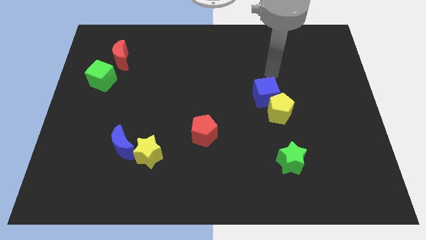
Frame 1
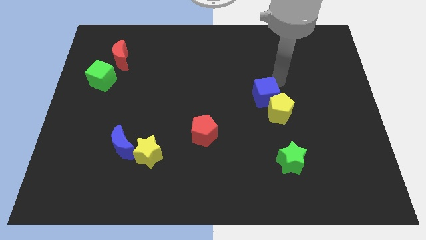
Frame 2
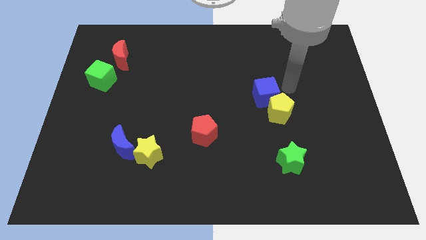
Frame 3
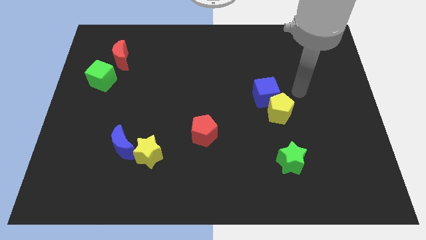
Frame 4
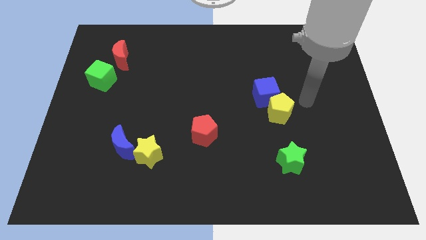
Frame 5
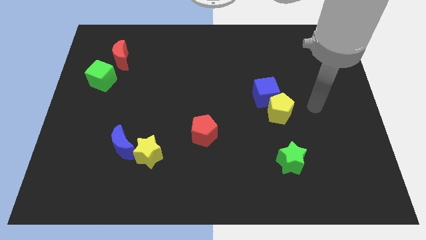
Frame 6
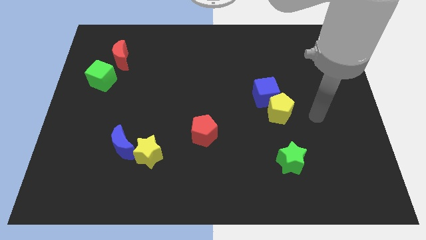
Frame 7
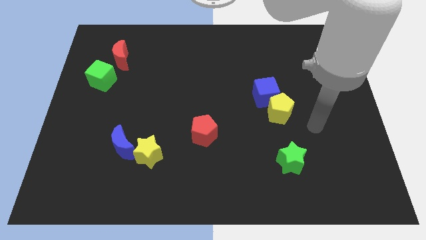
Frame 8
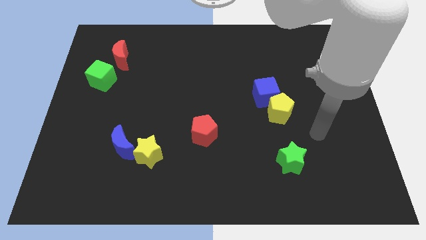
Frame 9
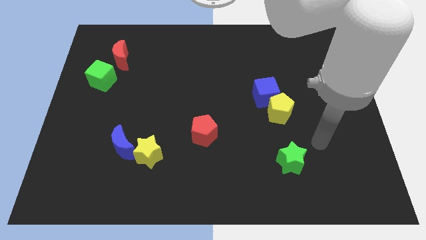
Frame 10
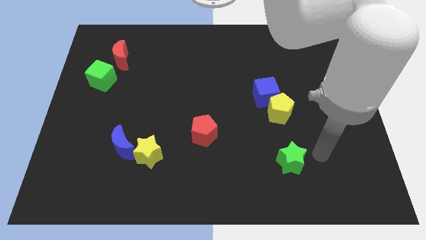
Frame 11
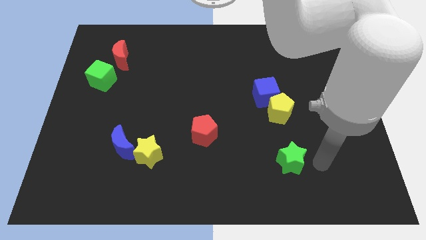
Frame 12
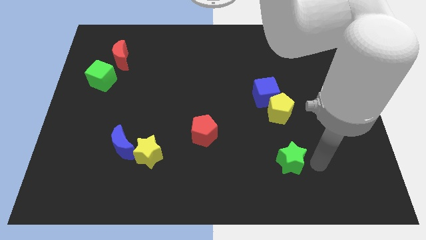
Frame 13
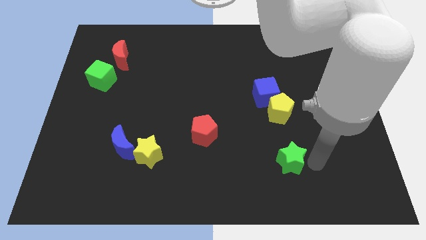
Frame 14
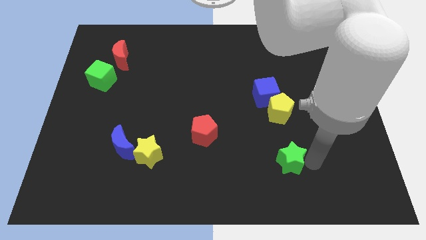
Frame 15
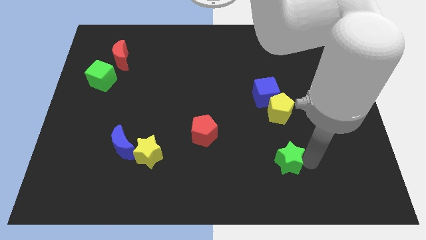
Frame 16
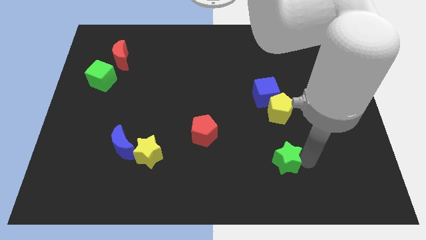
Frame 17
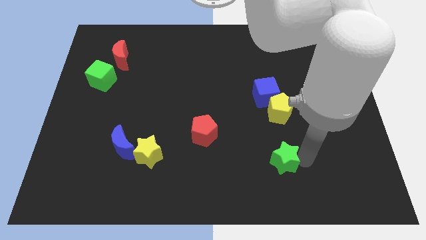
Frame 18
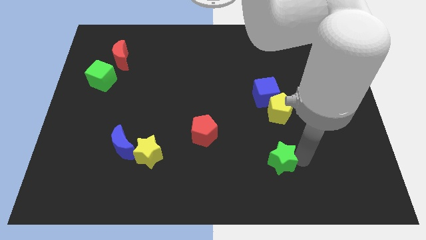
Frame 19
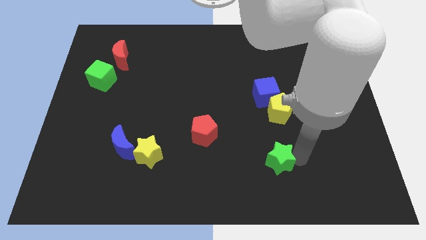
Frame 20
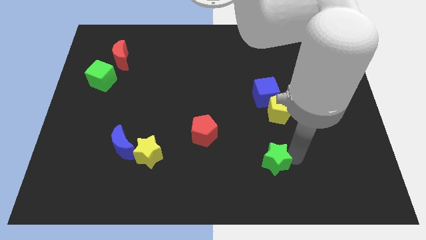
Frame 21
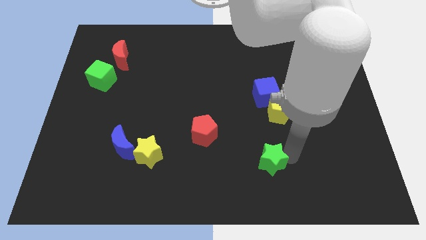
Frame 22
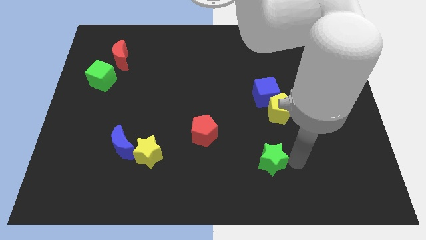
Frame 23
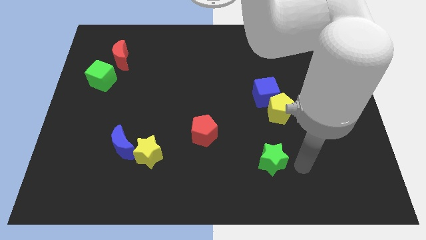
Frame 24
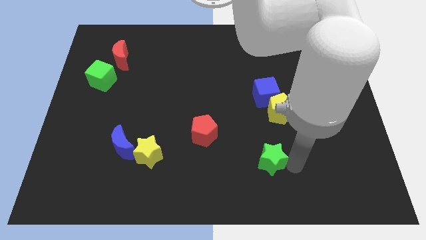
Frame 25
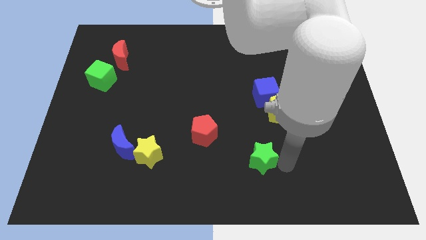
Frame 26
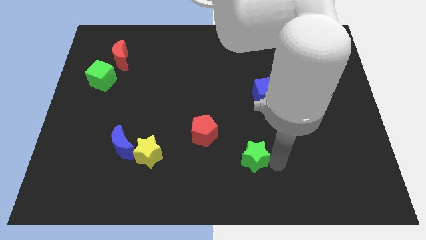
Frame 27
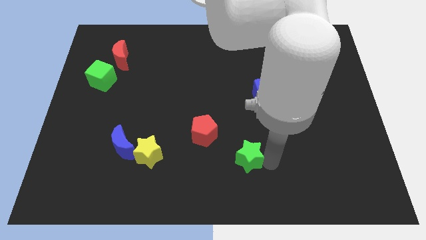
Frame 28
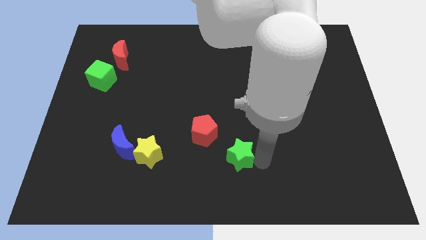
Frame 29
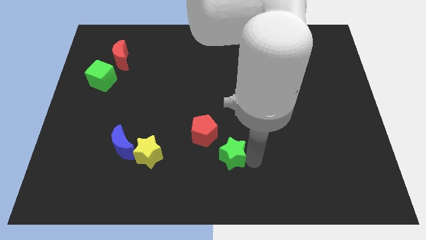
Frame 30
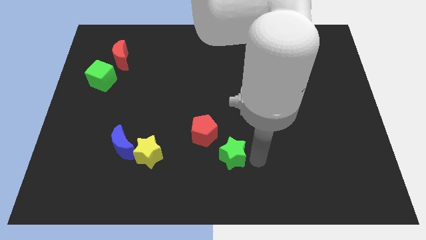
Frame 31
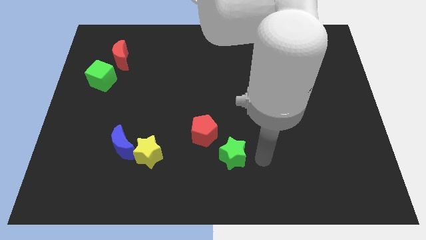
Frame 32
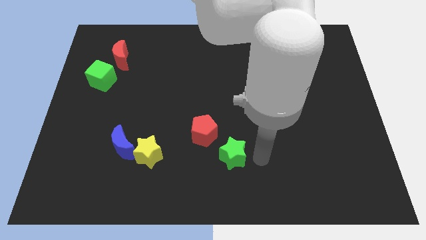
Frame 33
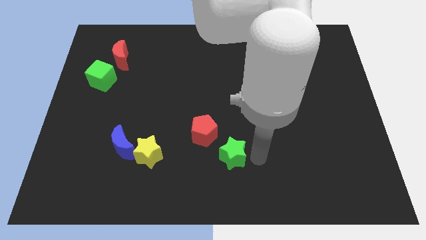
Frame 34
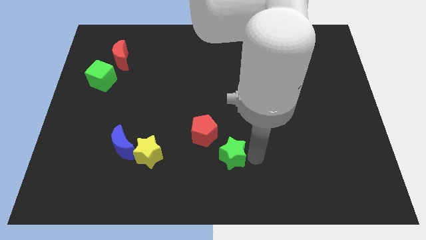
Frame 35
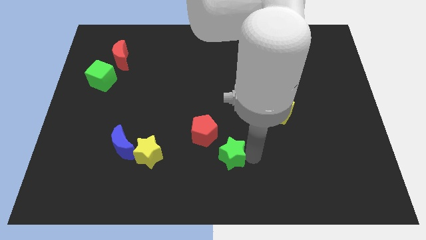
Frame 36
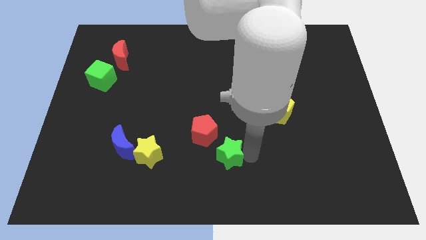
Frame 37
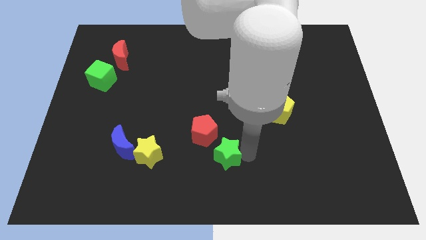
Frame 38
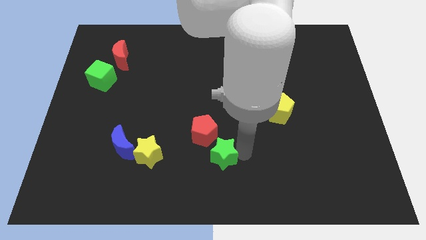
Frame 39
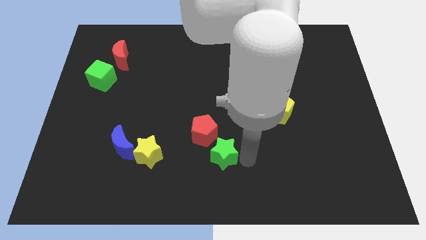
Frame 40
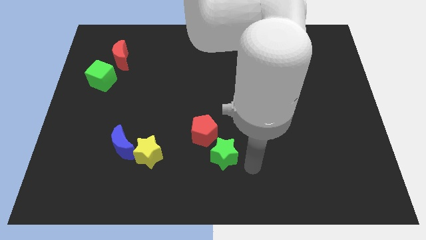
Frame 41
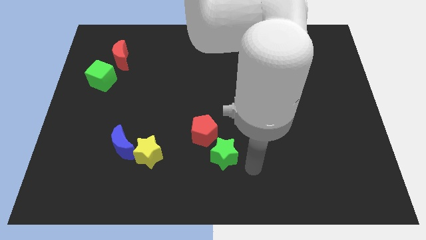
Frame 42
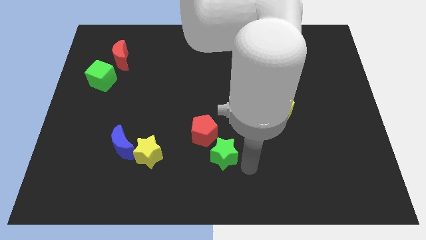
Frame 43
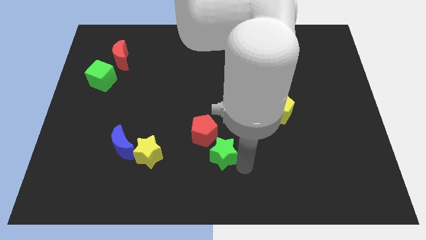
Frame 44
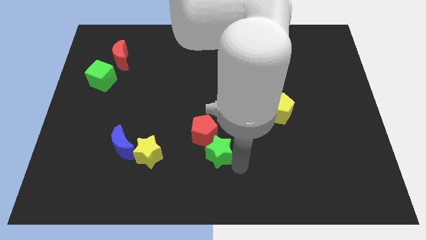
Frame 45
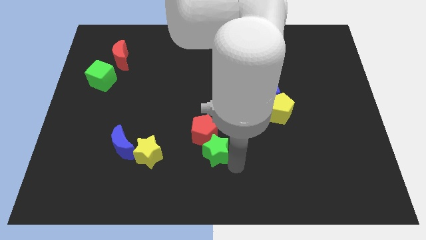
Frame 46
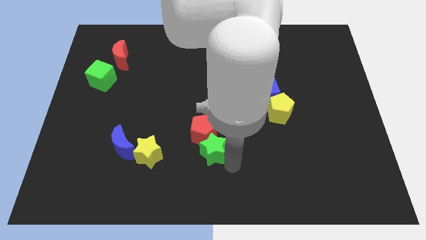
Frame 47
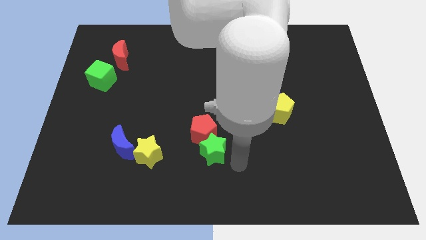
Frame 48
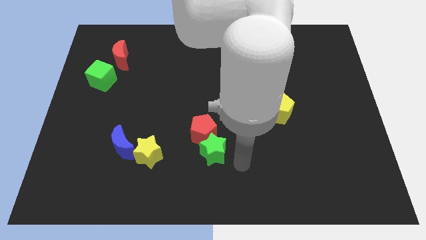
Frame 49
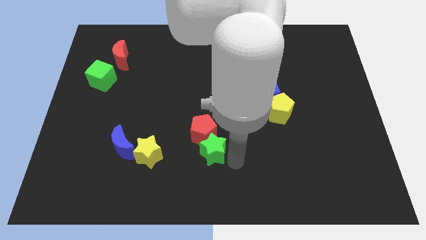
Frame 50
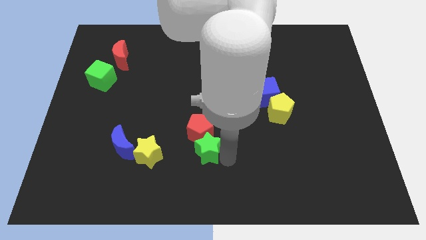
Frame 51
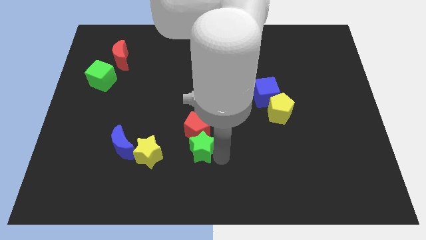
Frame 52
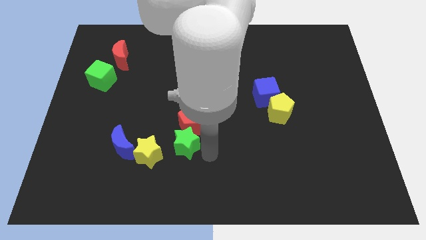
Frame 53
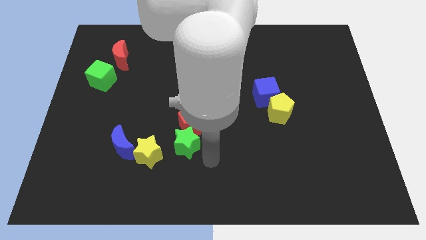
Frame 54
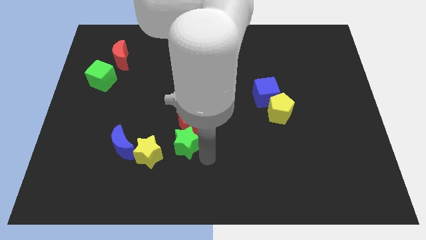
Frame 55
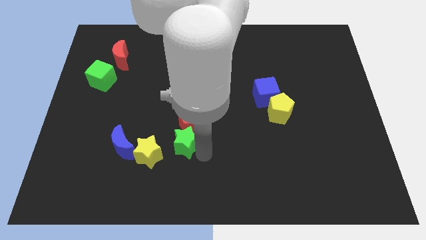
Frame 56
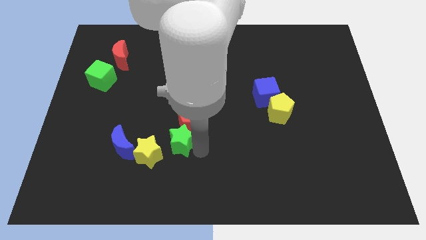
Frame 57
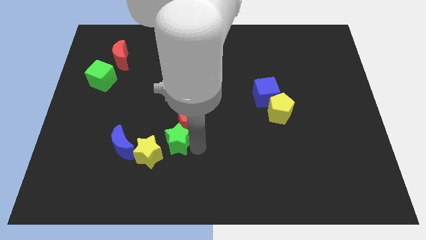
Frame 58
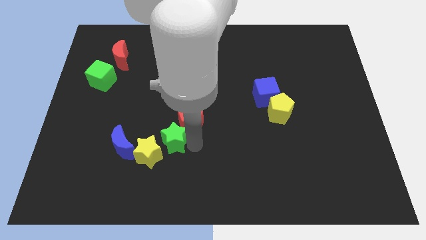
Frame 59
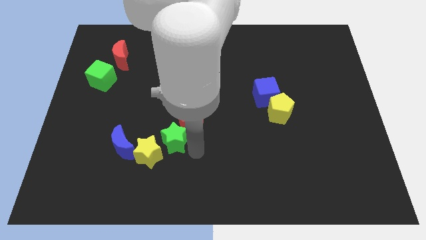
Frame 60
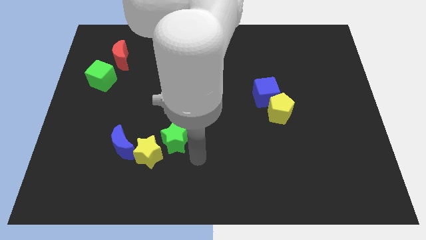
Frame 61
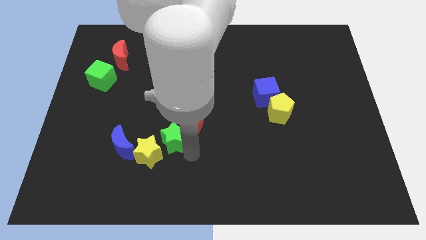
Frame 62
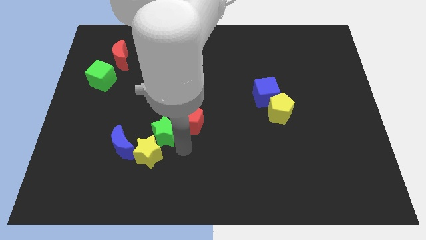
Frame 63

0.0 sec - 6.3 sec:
slide the green star just left of the red pentagon
